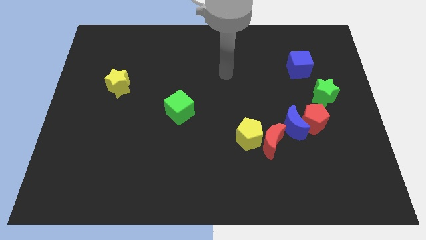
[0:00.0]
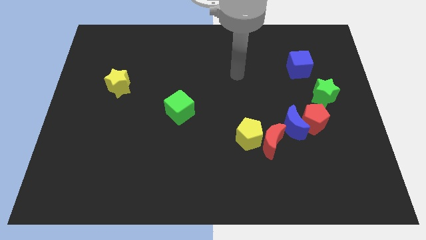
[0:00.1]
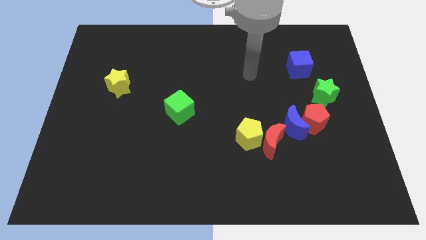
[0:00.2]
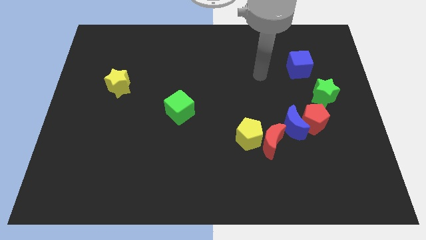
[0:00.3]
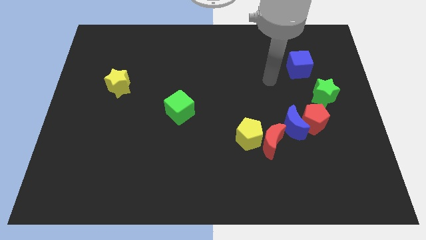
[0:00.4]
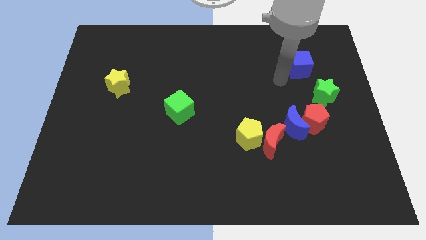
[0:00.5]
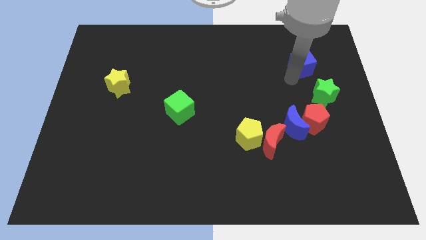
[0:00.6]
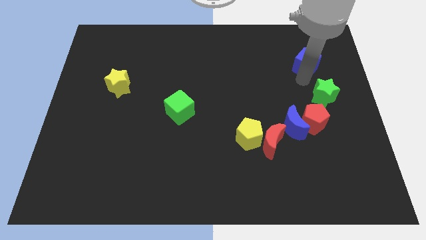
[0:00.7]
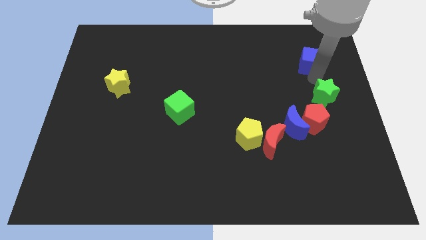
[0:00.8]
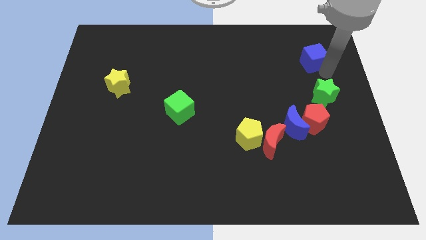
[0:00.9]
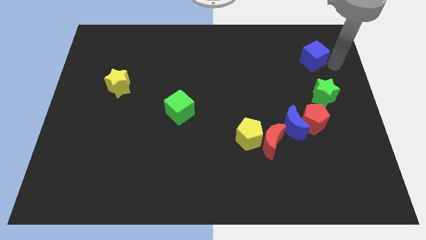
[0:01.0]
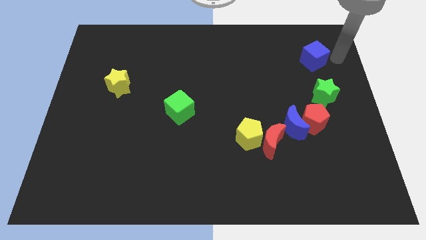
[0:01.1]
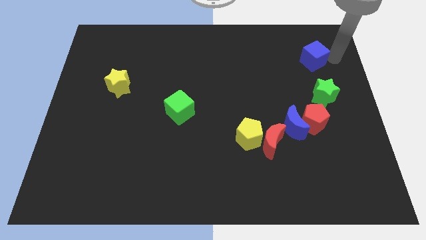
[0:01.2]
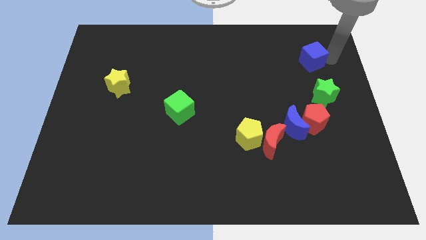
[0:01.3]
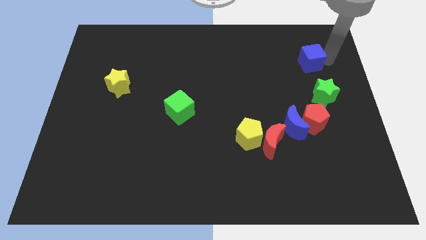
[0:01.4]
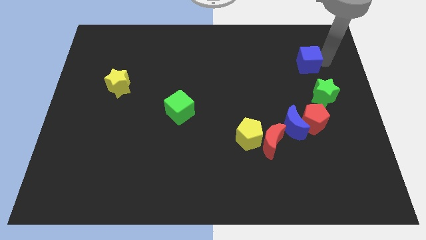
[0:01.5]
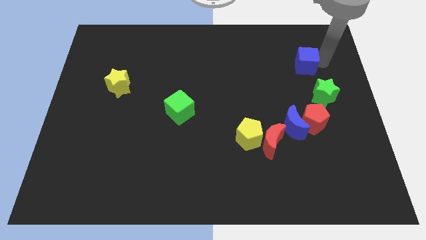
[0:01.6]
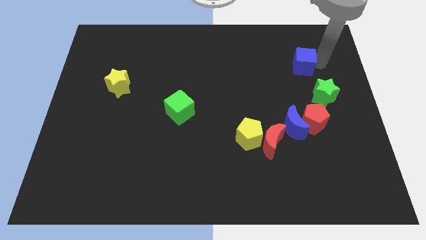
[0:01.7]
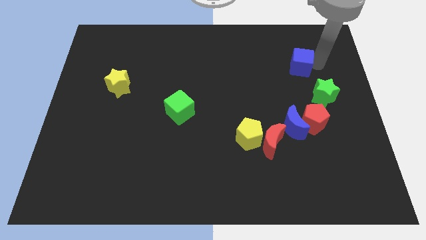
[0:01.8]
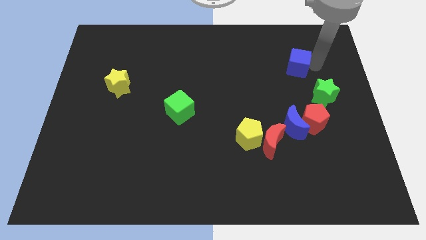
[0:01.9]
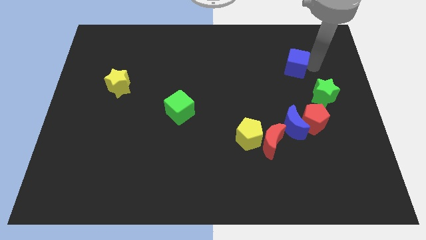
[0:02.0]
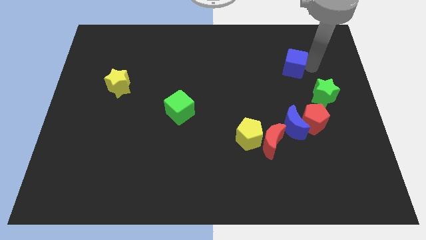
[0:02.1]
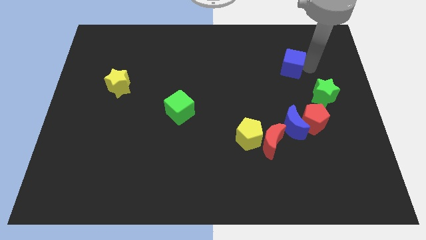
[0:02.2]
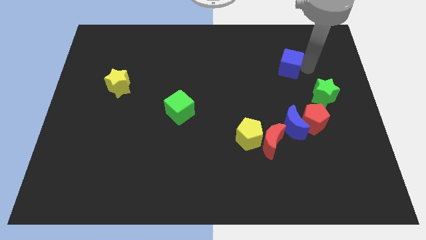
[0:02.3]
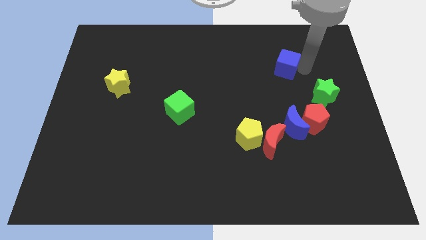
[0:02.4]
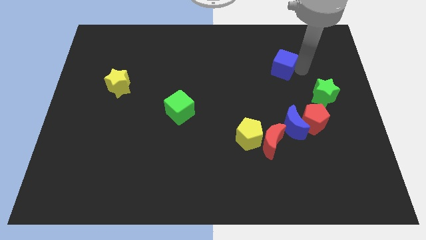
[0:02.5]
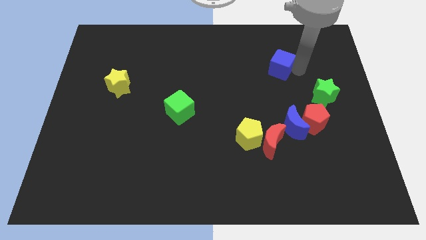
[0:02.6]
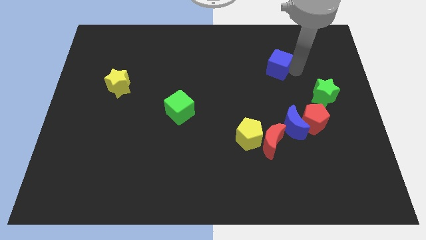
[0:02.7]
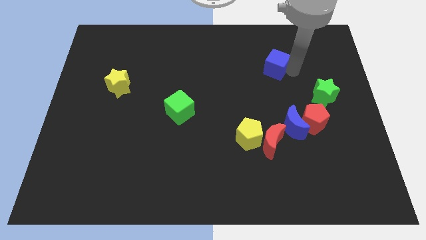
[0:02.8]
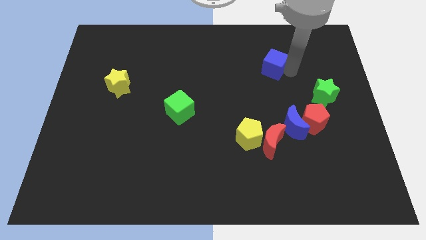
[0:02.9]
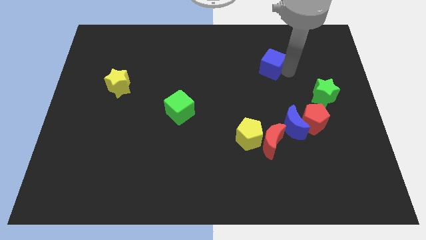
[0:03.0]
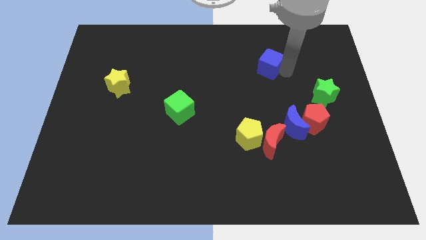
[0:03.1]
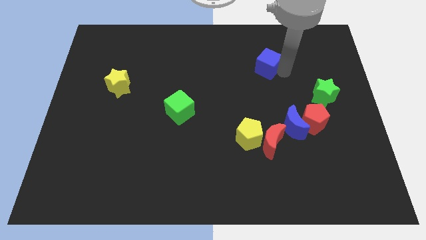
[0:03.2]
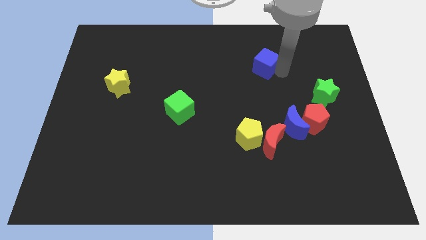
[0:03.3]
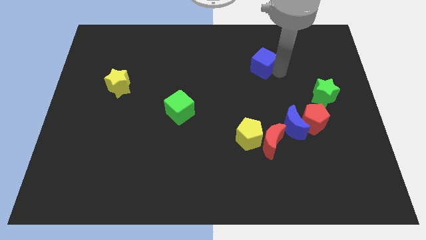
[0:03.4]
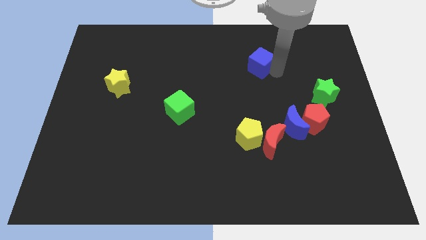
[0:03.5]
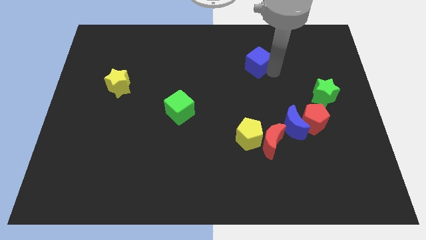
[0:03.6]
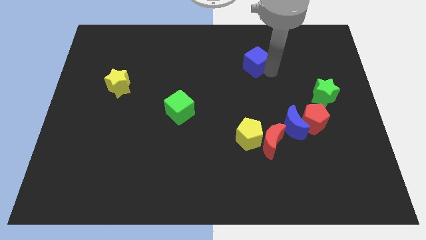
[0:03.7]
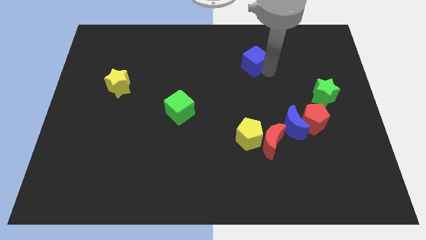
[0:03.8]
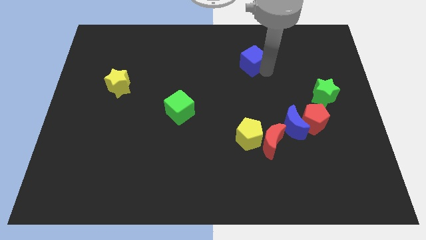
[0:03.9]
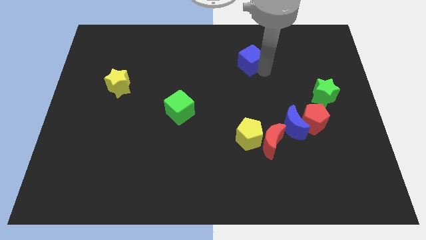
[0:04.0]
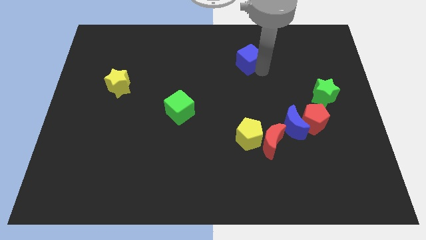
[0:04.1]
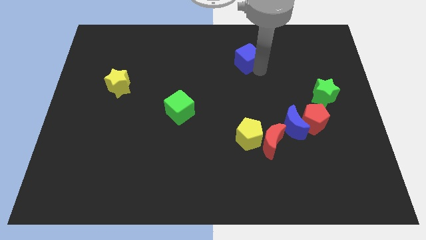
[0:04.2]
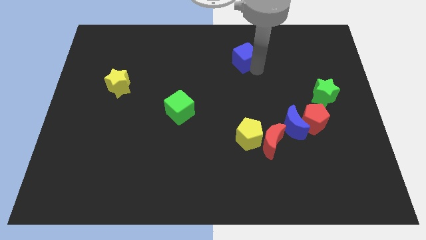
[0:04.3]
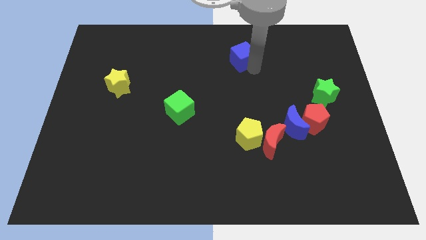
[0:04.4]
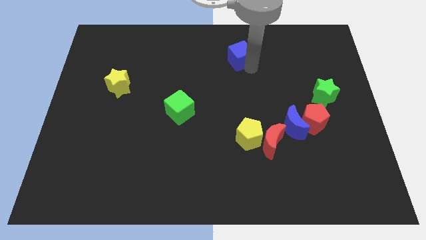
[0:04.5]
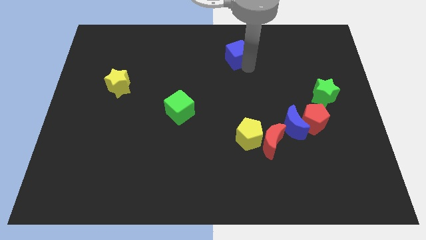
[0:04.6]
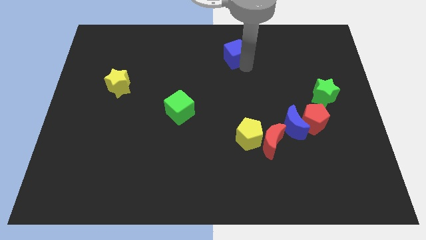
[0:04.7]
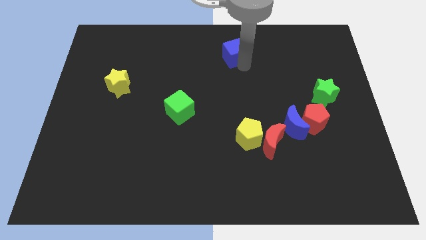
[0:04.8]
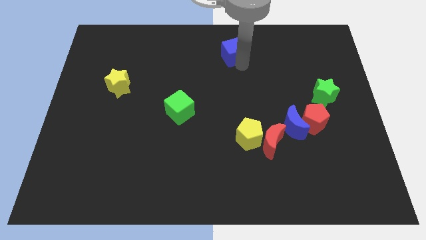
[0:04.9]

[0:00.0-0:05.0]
put the blue cube to the top side

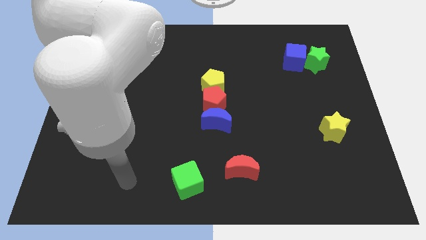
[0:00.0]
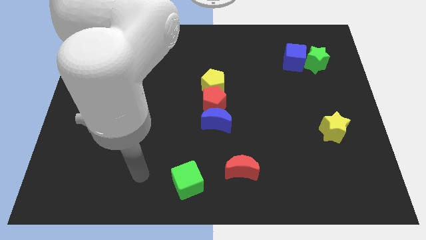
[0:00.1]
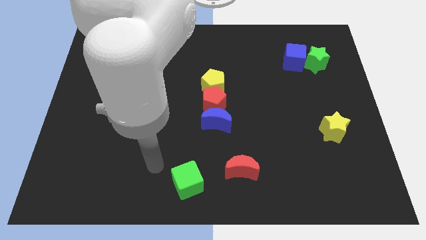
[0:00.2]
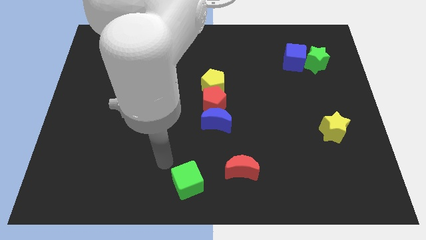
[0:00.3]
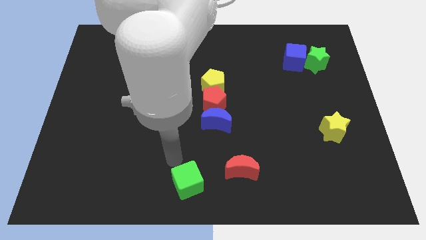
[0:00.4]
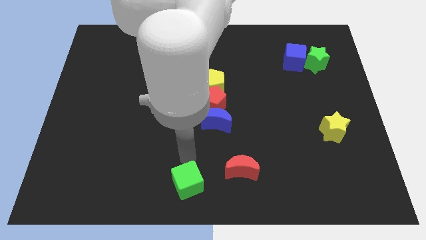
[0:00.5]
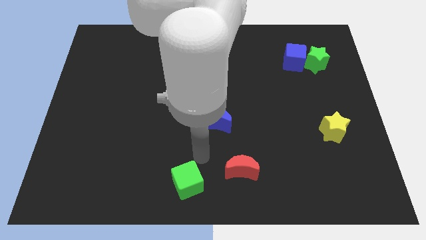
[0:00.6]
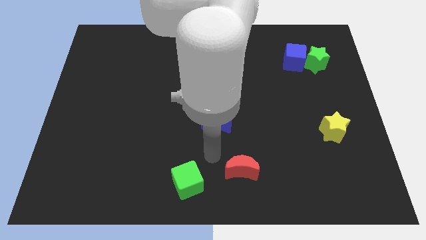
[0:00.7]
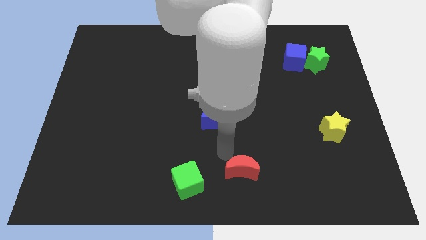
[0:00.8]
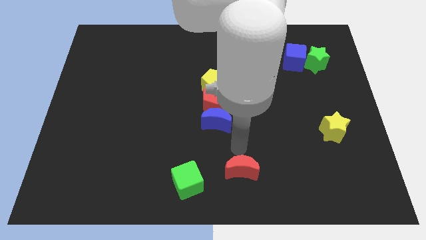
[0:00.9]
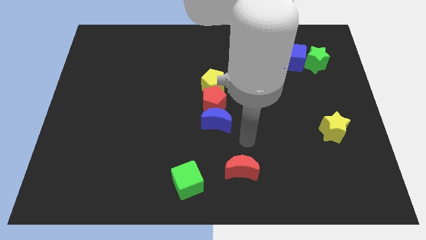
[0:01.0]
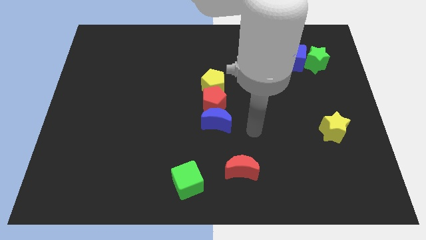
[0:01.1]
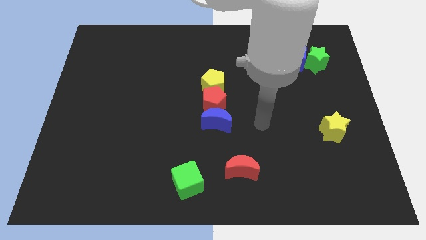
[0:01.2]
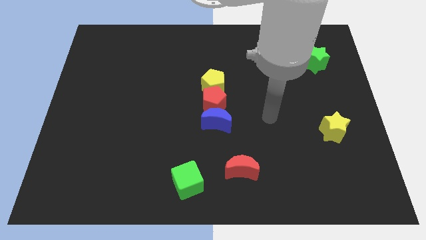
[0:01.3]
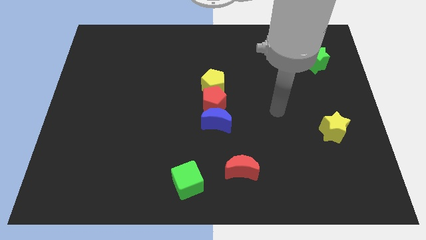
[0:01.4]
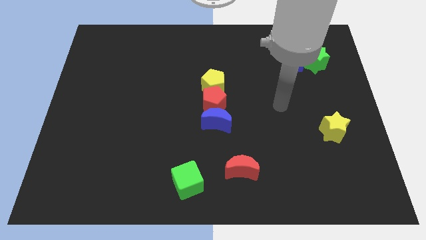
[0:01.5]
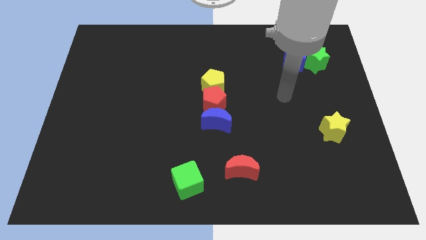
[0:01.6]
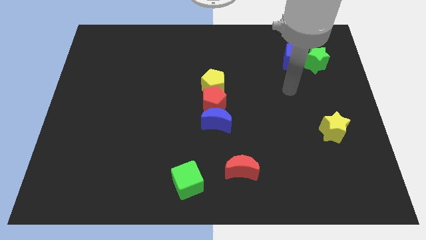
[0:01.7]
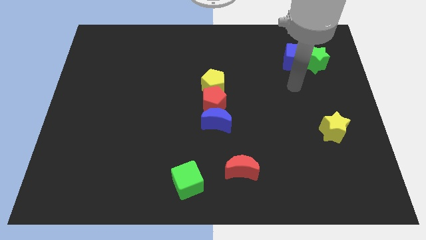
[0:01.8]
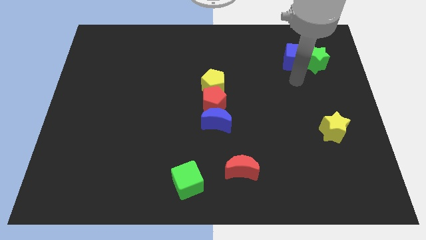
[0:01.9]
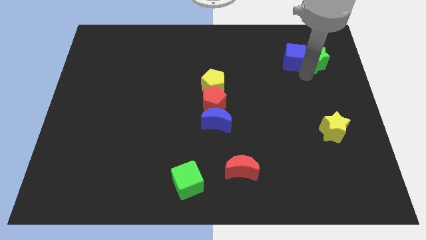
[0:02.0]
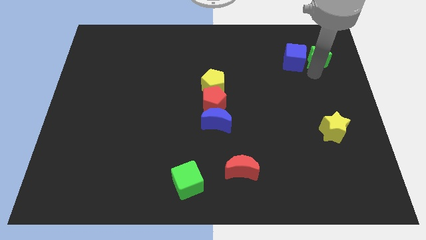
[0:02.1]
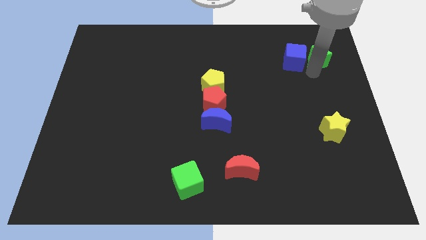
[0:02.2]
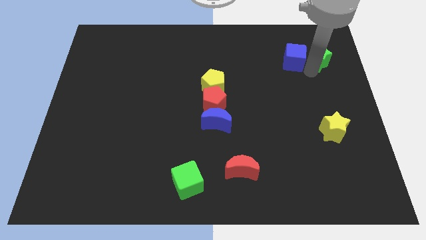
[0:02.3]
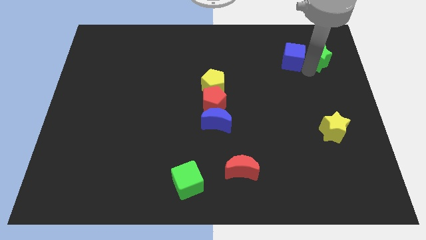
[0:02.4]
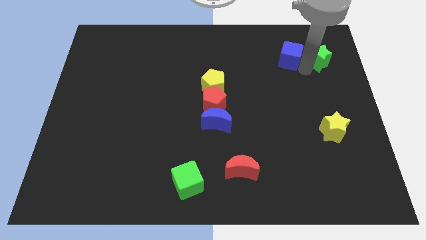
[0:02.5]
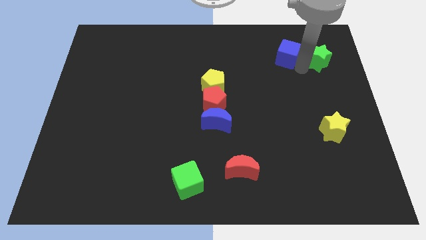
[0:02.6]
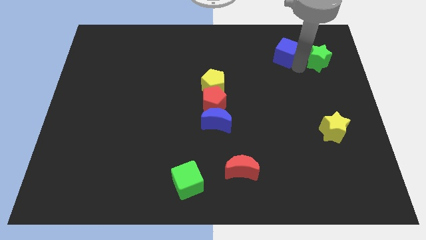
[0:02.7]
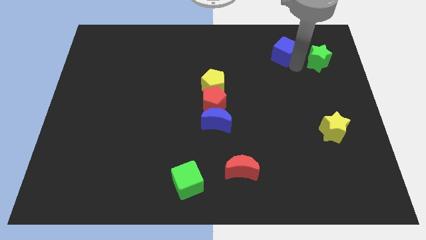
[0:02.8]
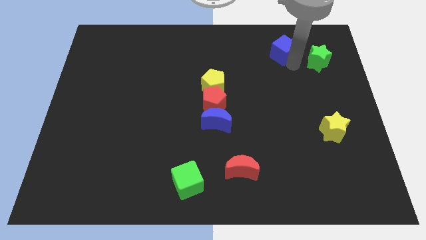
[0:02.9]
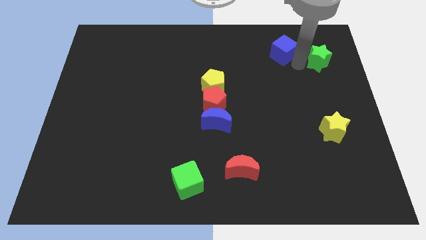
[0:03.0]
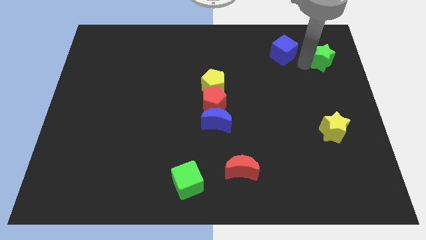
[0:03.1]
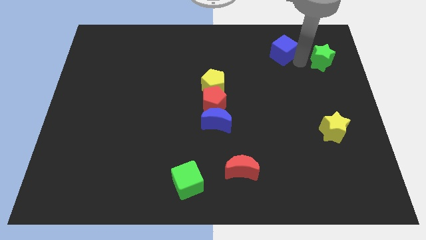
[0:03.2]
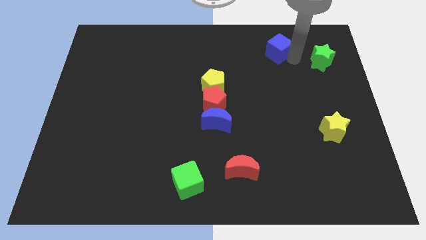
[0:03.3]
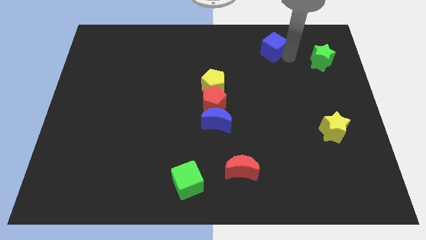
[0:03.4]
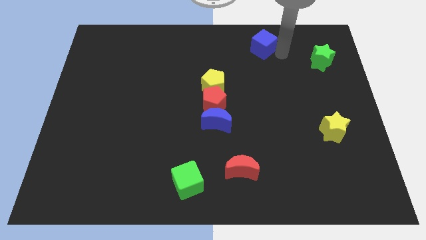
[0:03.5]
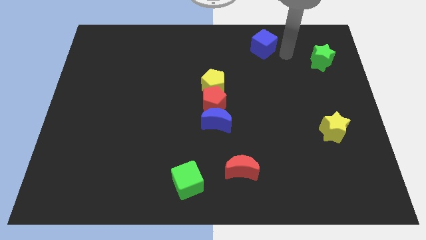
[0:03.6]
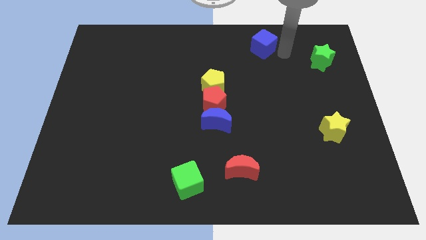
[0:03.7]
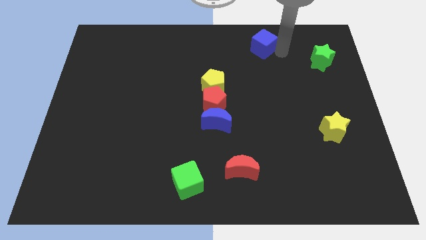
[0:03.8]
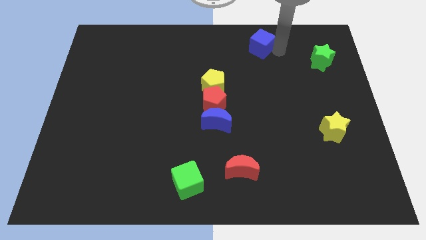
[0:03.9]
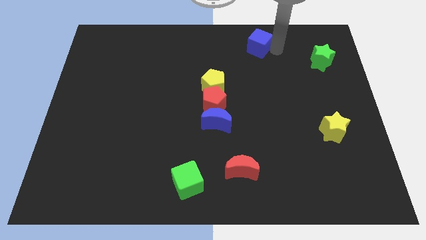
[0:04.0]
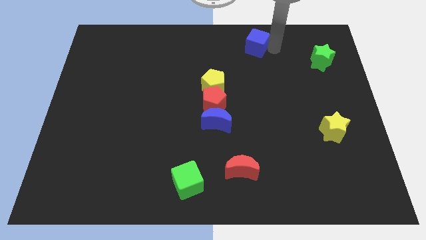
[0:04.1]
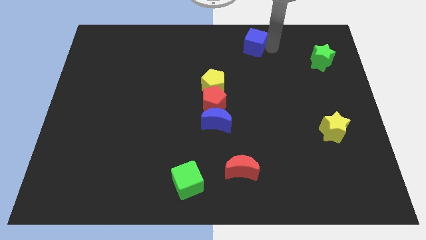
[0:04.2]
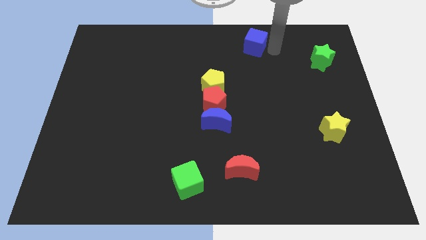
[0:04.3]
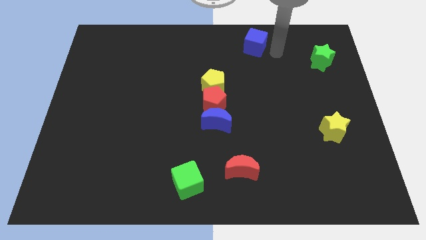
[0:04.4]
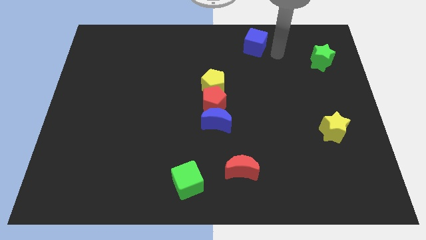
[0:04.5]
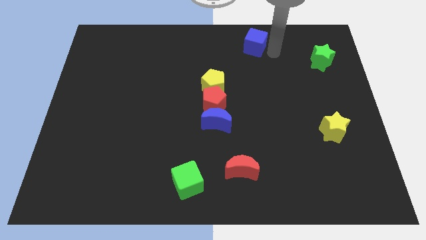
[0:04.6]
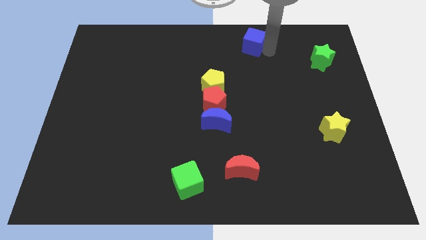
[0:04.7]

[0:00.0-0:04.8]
move the blue cube to the top
